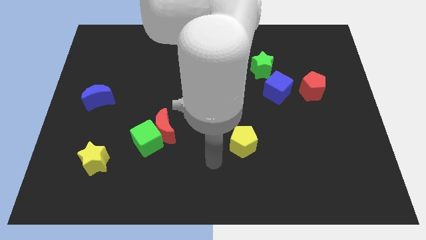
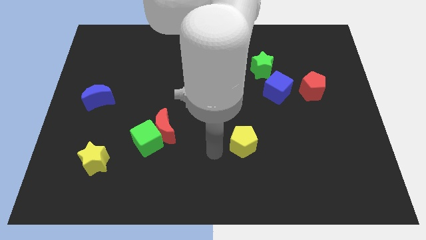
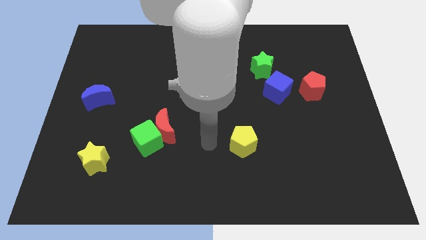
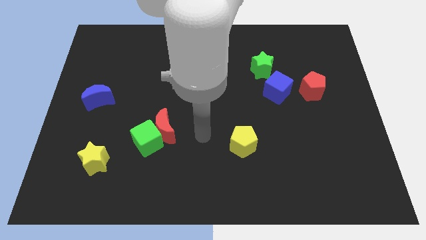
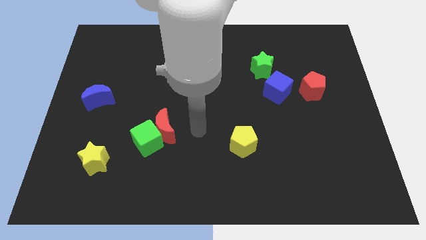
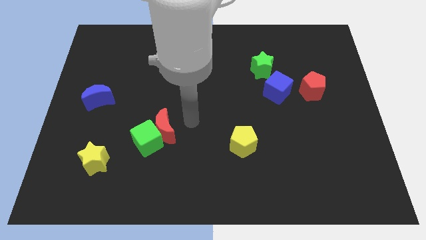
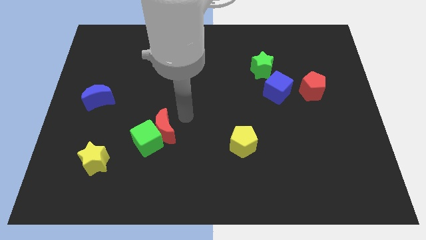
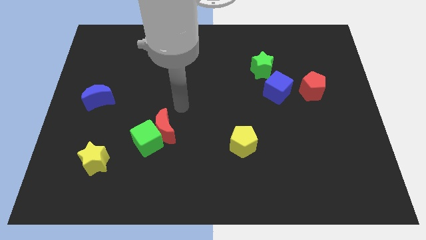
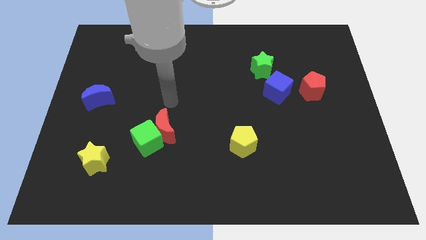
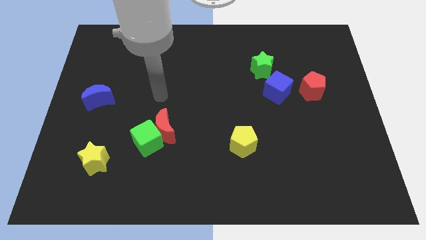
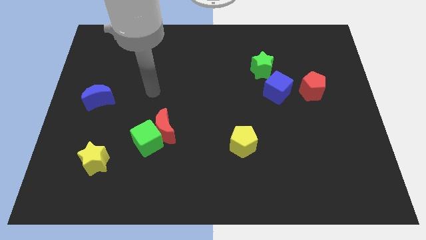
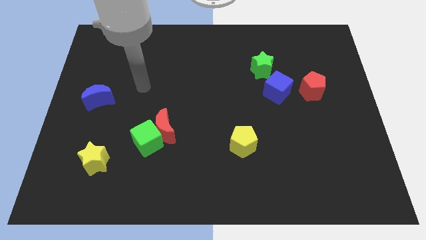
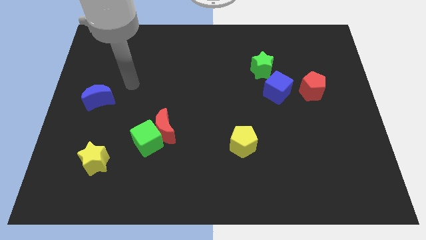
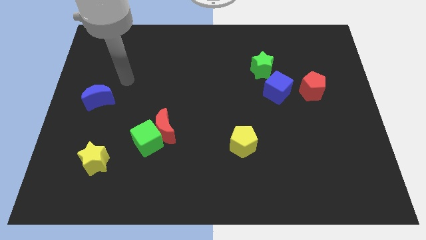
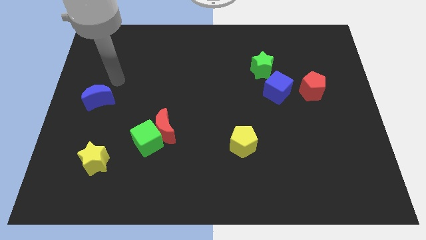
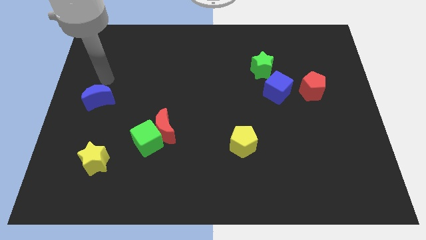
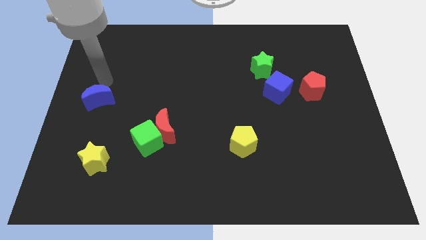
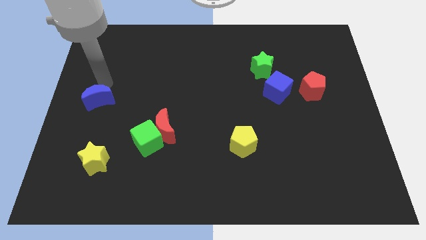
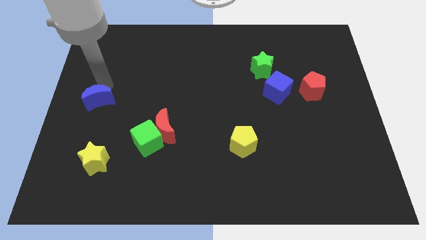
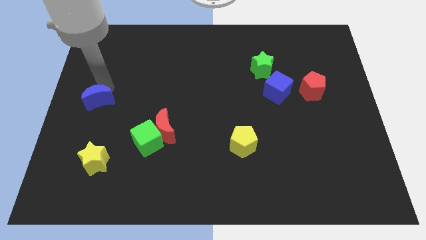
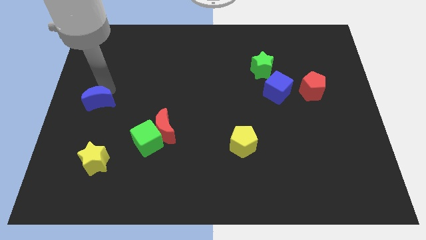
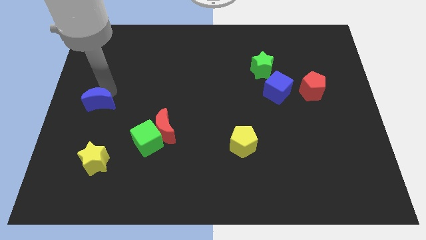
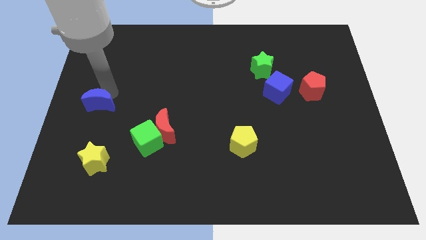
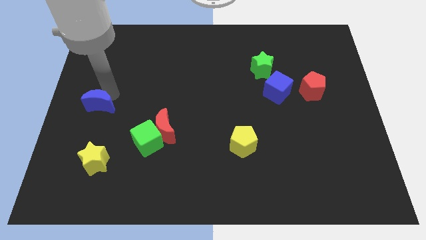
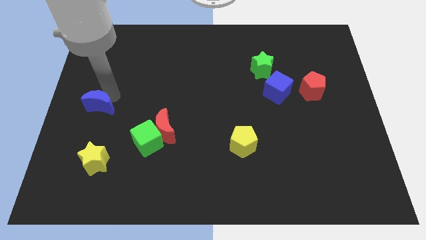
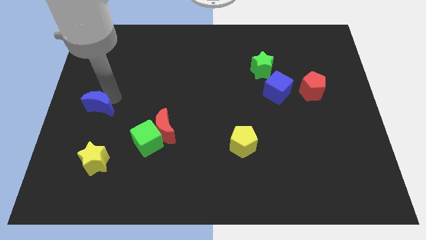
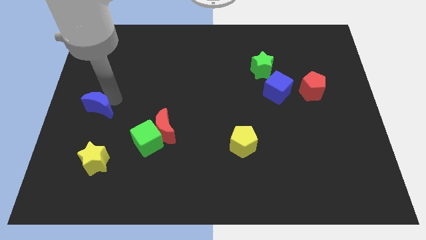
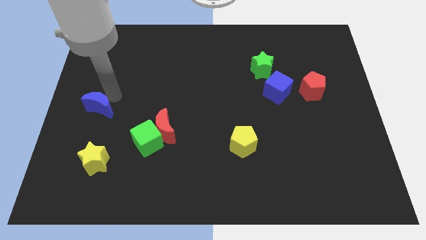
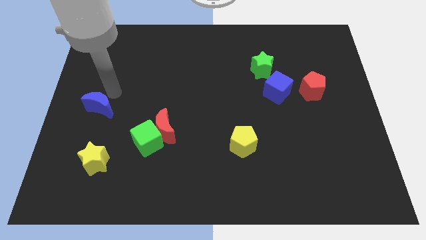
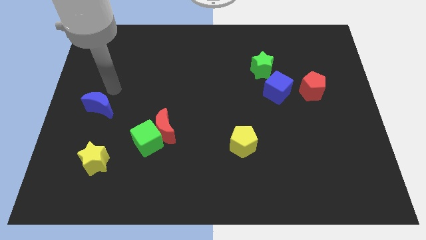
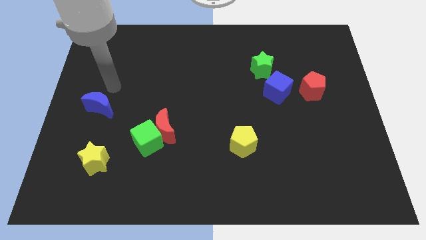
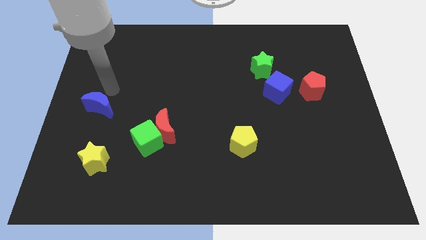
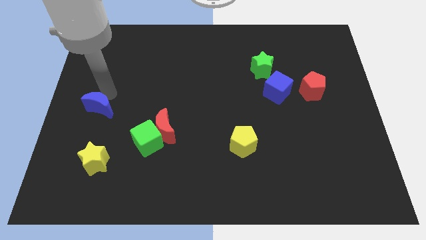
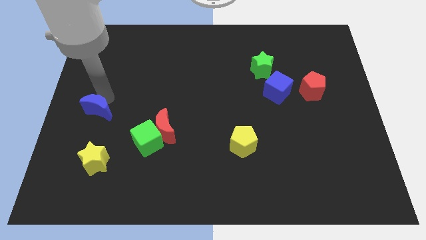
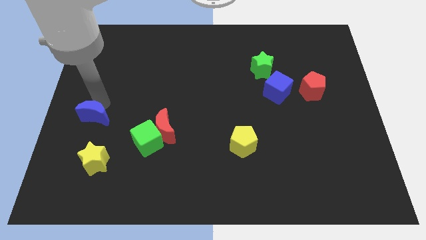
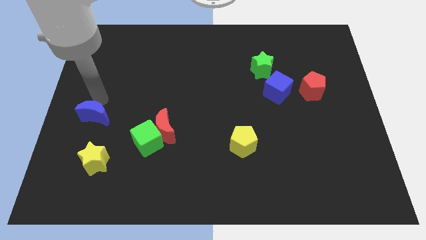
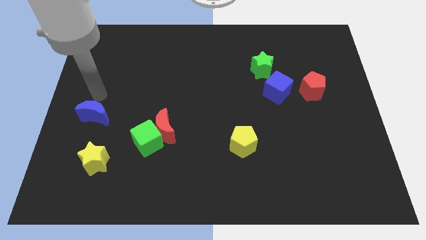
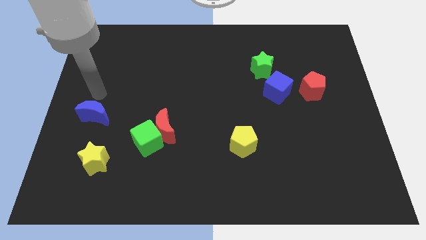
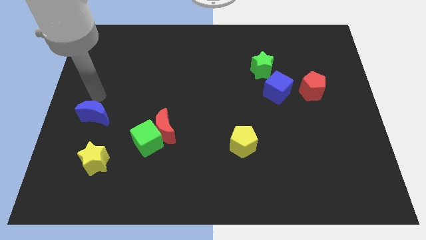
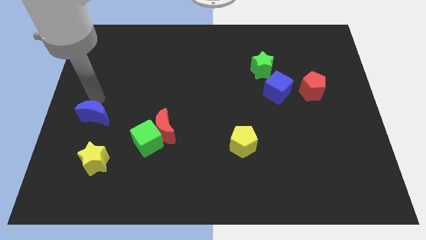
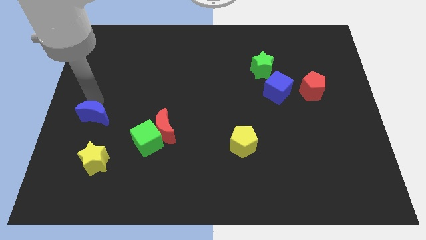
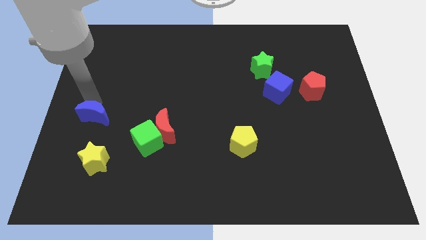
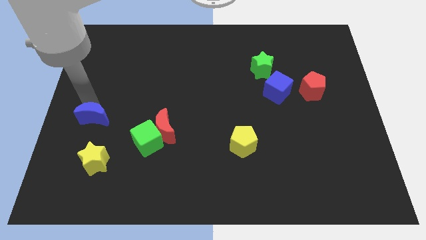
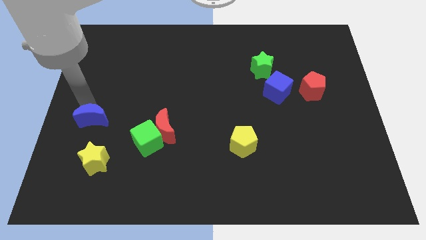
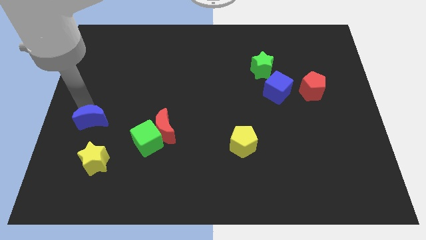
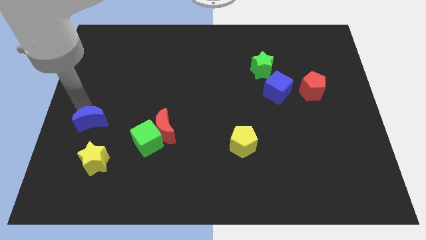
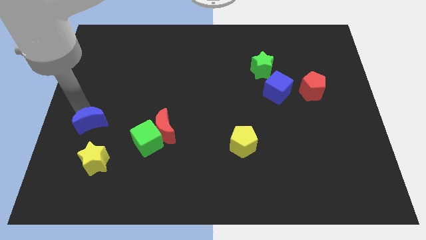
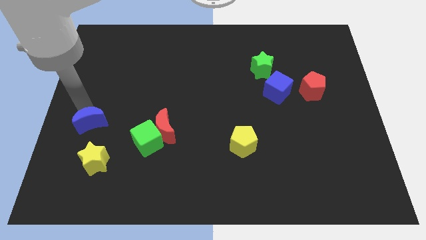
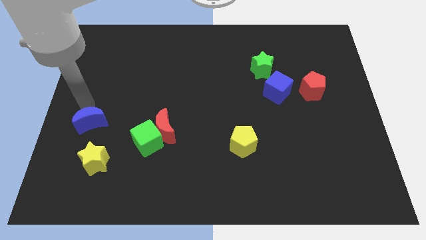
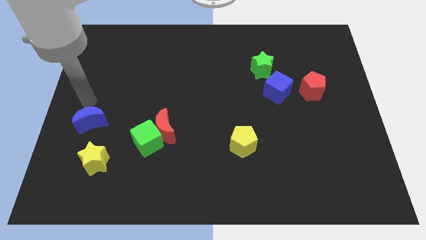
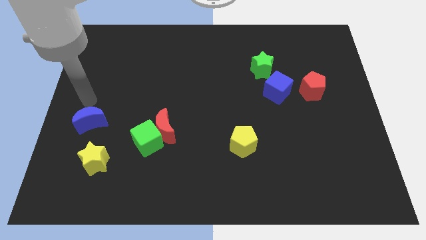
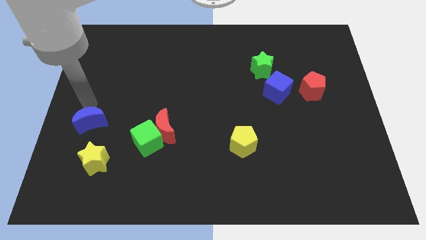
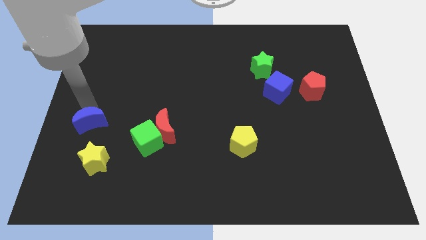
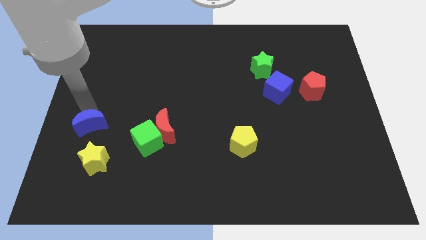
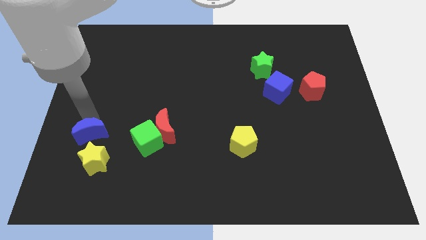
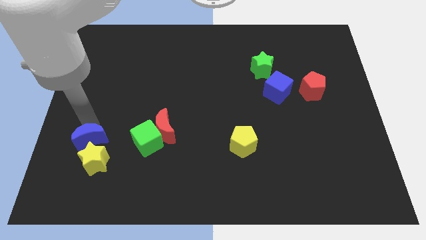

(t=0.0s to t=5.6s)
put the blue moon next to the yellow star

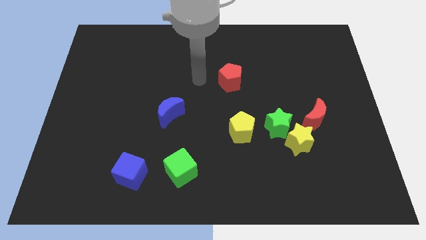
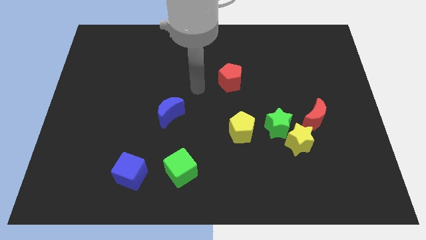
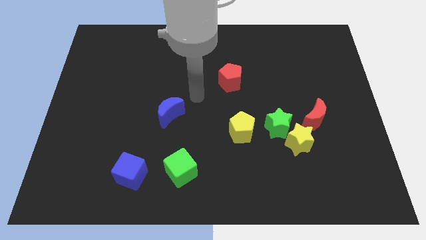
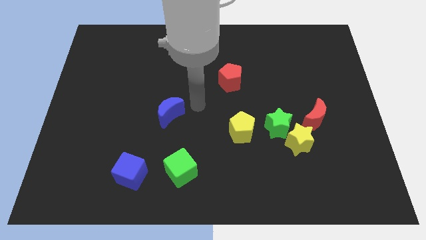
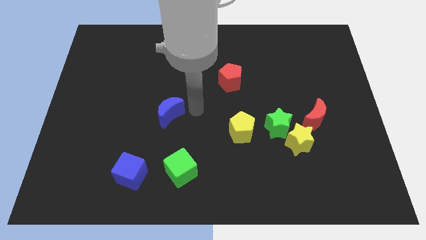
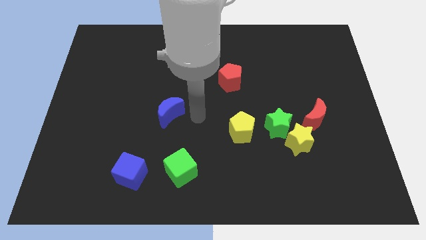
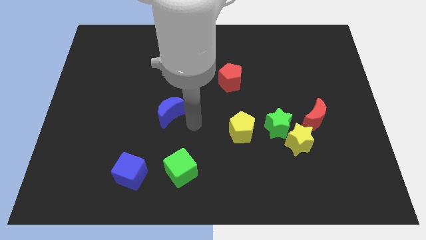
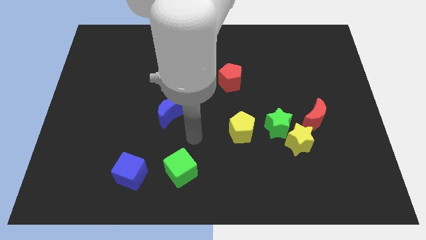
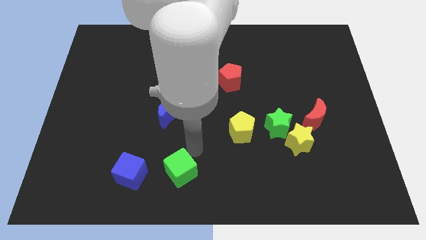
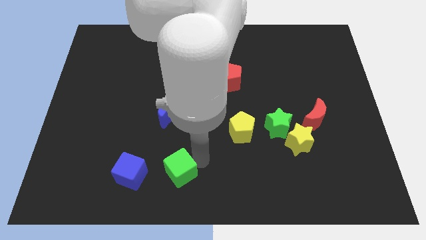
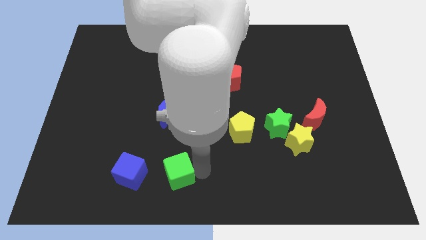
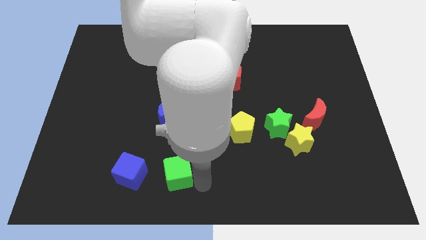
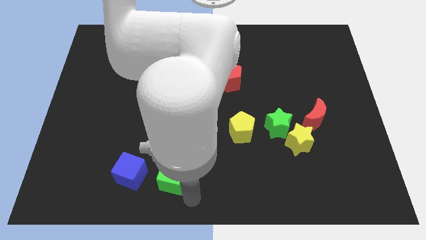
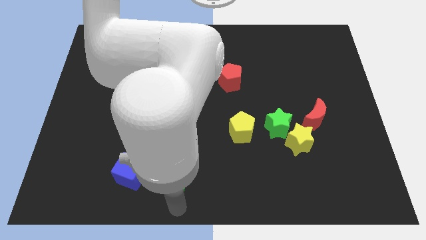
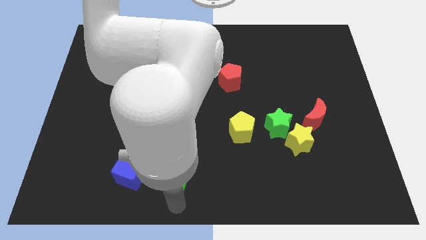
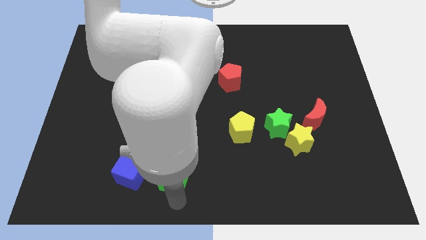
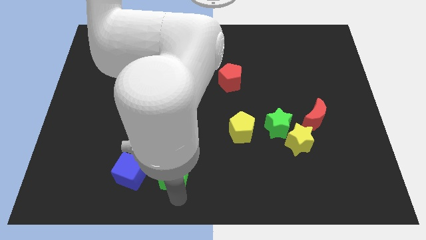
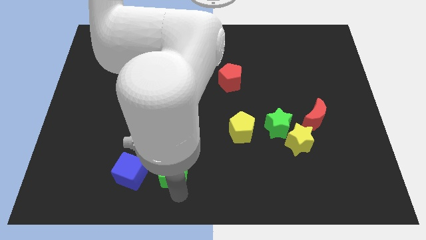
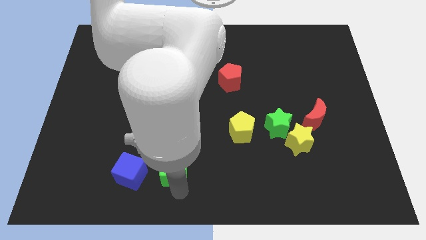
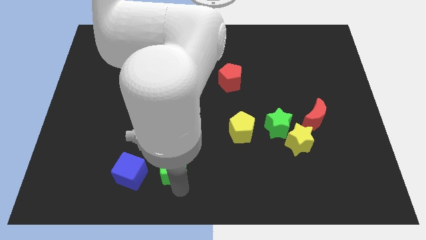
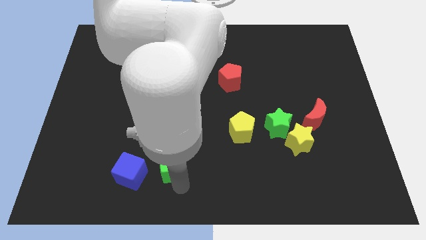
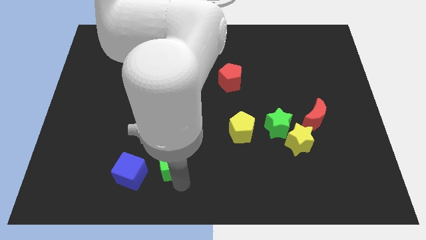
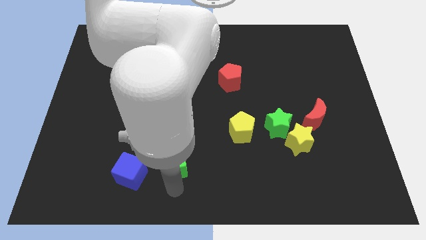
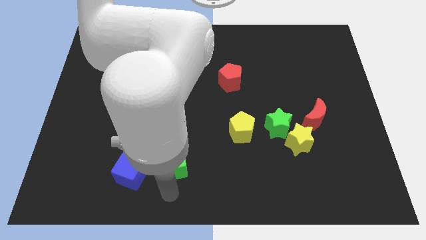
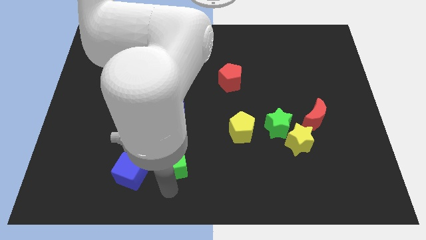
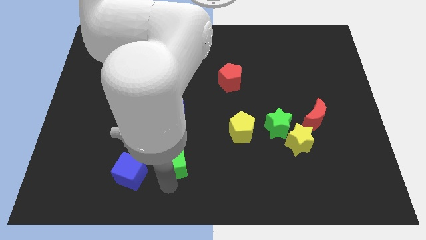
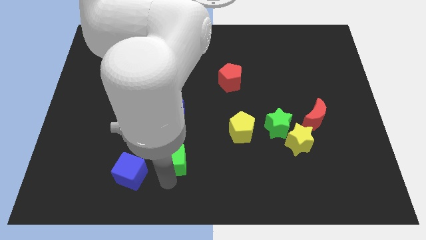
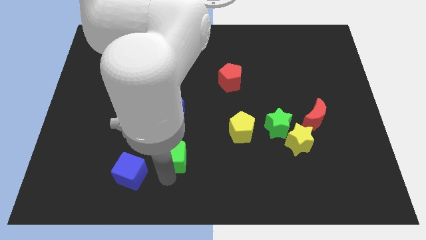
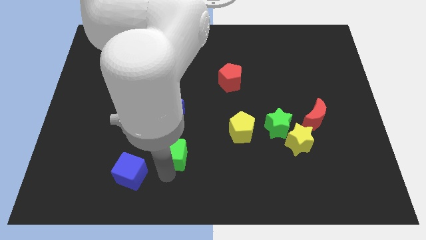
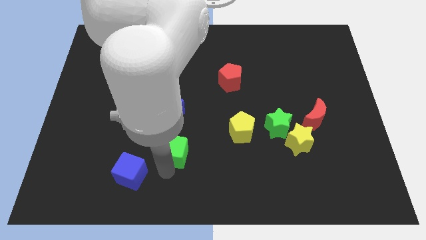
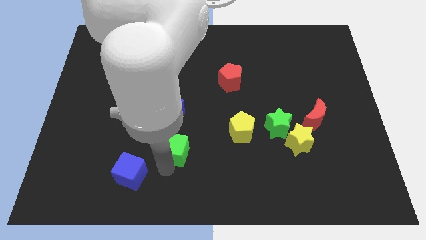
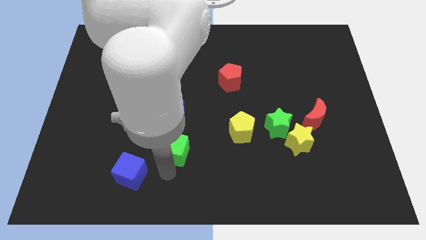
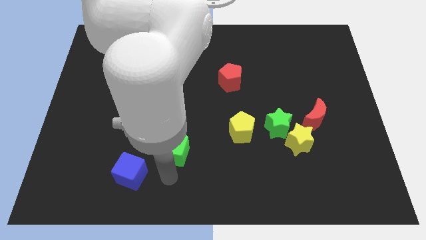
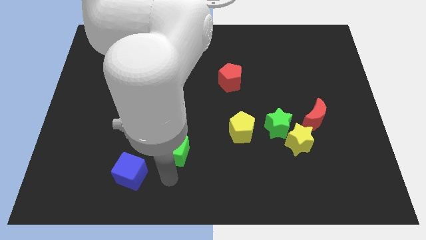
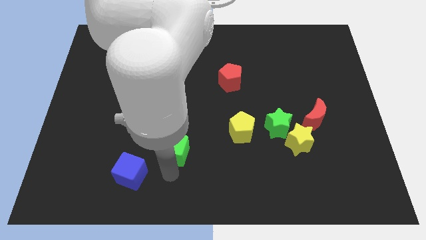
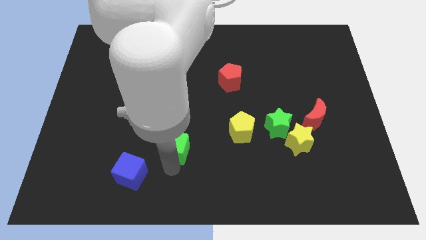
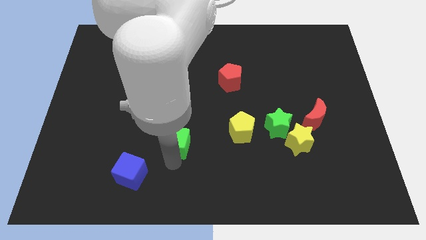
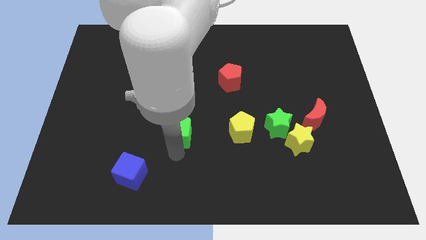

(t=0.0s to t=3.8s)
move the green cube next to the blue moon
